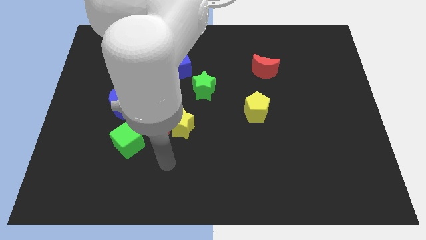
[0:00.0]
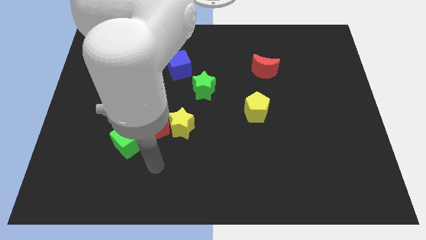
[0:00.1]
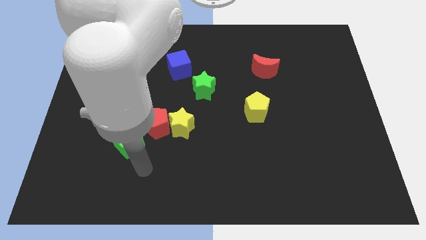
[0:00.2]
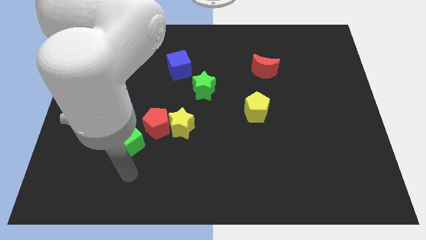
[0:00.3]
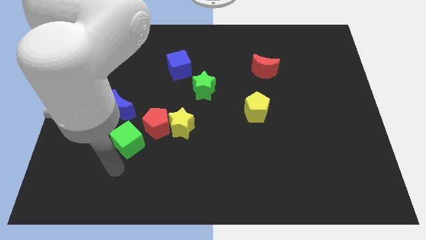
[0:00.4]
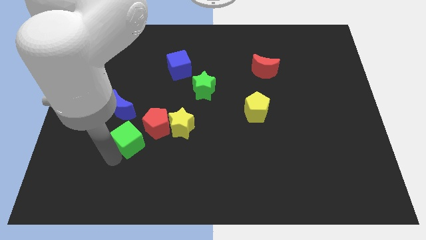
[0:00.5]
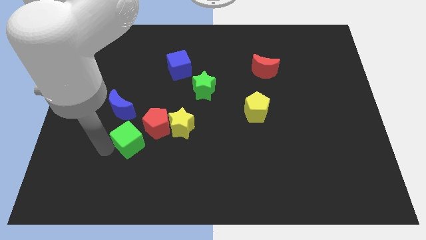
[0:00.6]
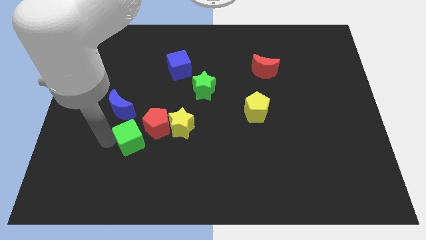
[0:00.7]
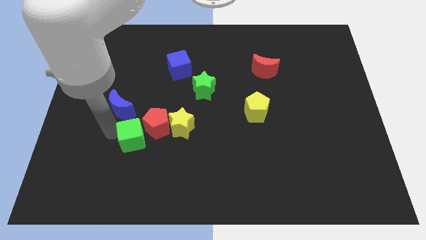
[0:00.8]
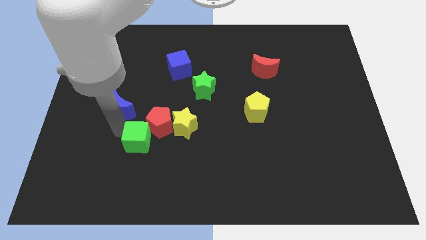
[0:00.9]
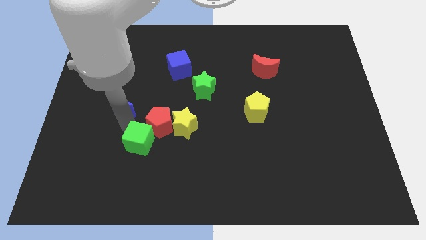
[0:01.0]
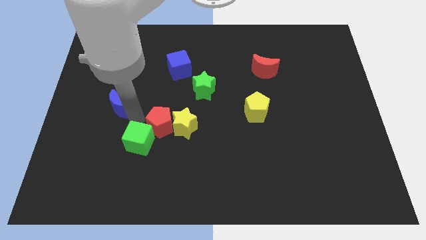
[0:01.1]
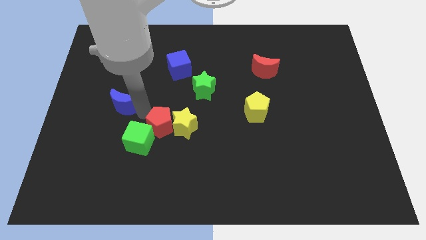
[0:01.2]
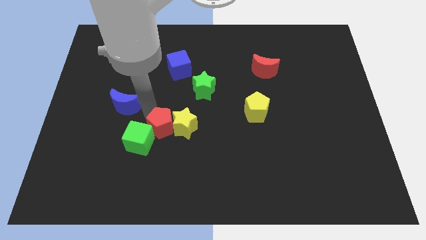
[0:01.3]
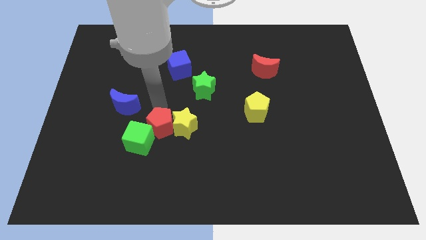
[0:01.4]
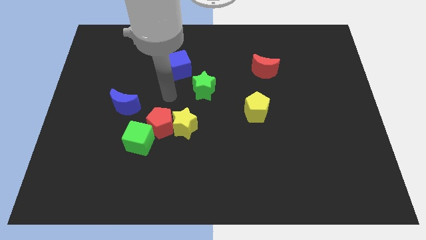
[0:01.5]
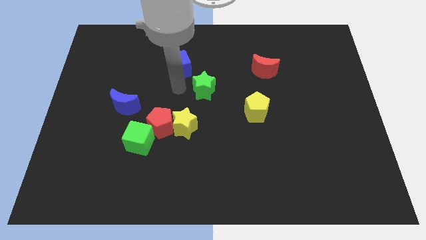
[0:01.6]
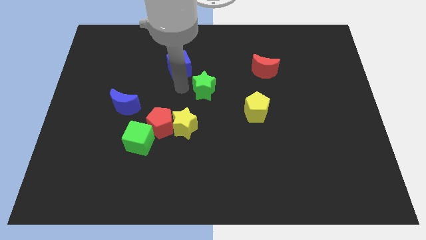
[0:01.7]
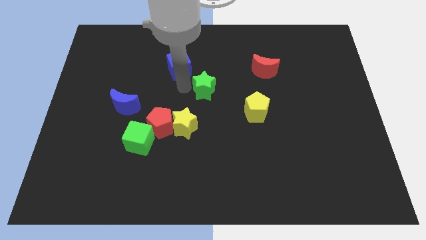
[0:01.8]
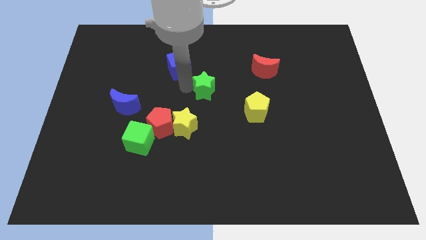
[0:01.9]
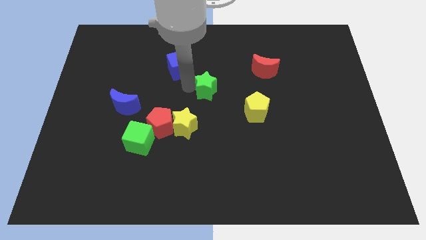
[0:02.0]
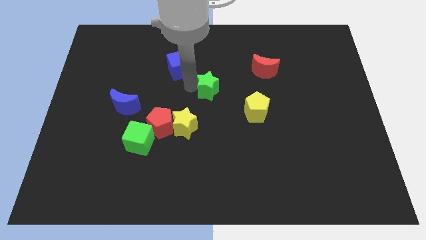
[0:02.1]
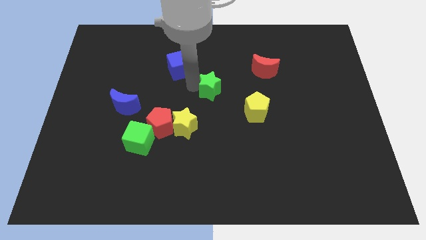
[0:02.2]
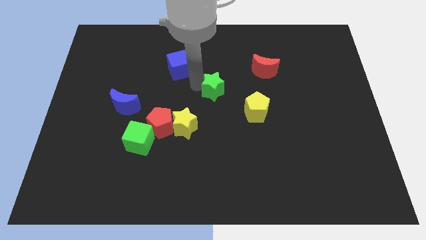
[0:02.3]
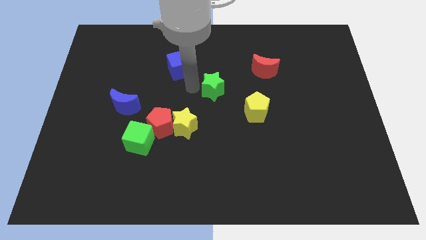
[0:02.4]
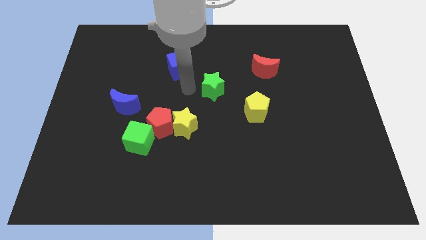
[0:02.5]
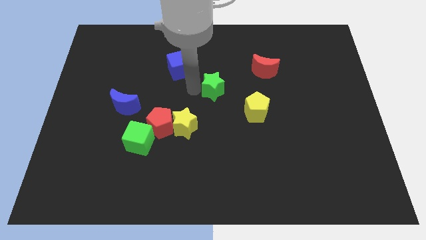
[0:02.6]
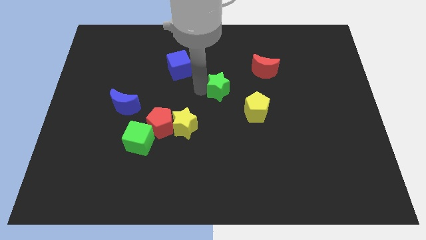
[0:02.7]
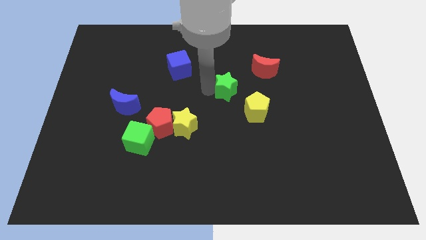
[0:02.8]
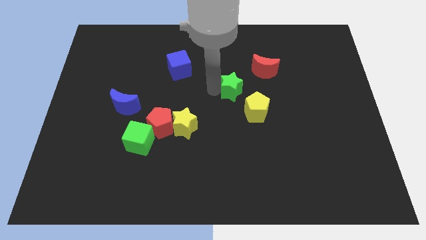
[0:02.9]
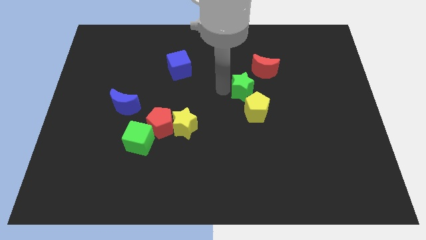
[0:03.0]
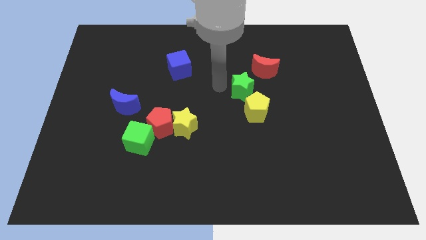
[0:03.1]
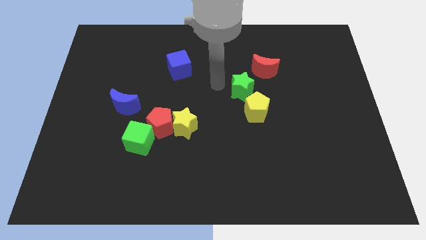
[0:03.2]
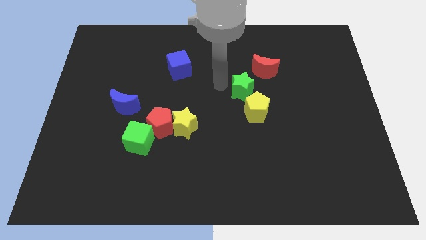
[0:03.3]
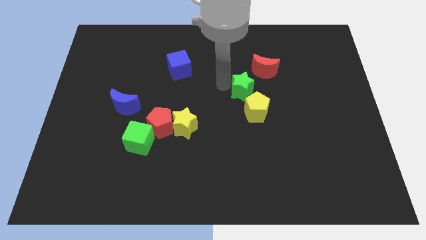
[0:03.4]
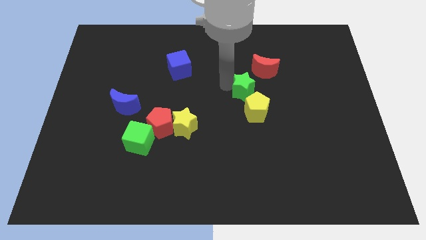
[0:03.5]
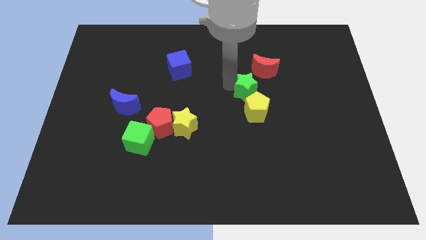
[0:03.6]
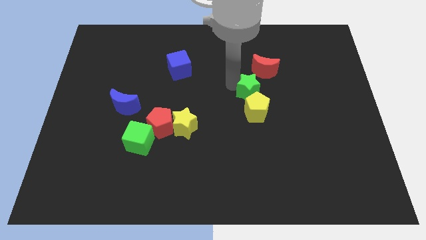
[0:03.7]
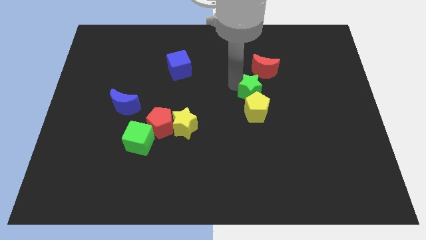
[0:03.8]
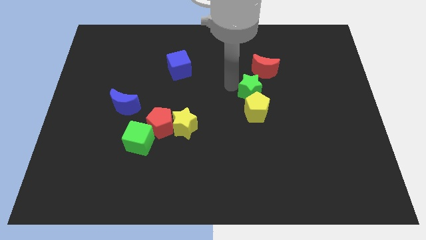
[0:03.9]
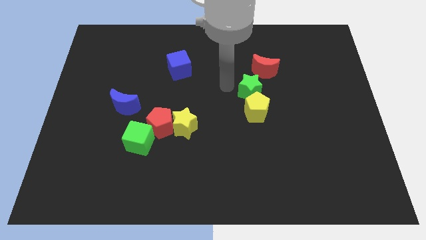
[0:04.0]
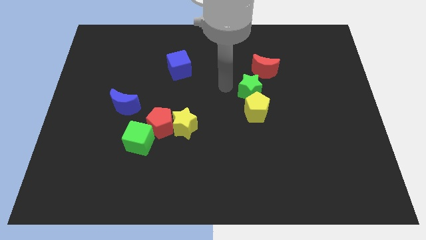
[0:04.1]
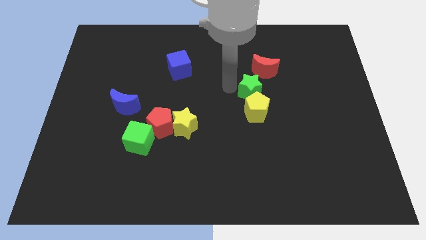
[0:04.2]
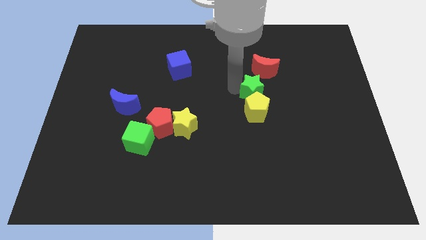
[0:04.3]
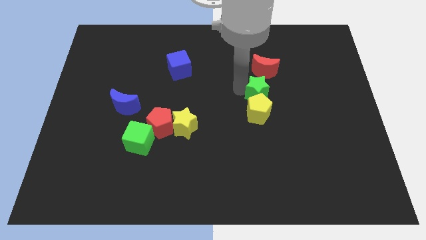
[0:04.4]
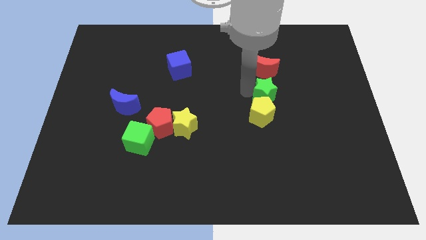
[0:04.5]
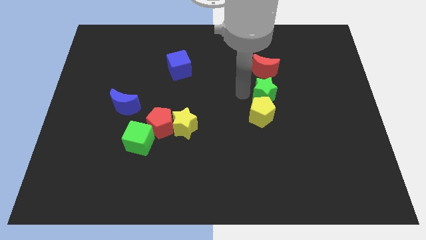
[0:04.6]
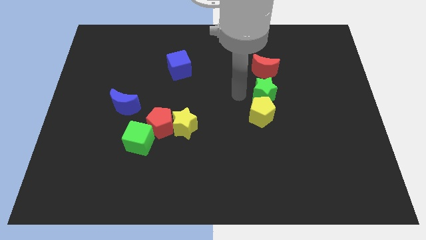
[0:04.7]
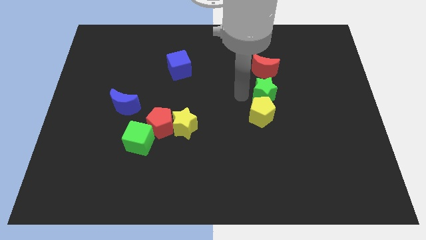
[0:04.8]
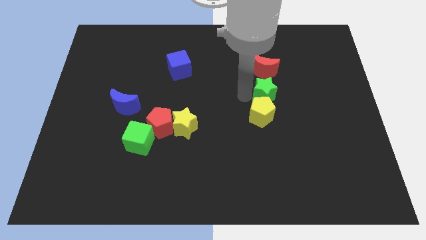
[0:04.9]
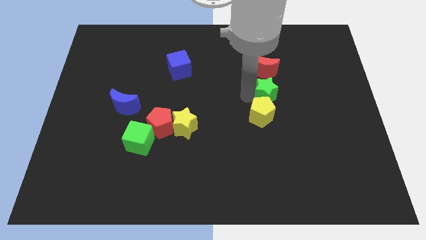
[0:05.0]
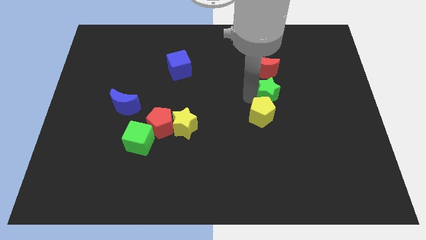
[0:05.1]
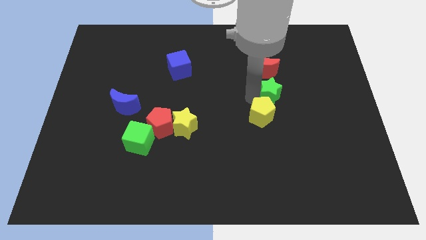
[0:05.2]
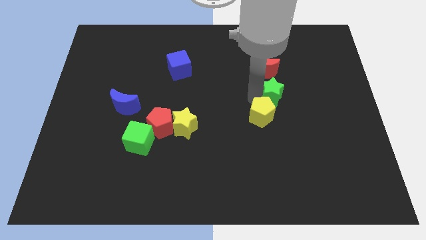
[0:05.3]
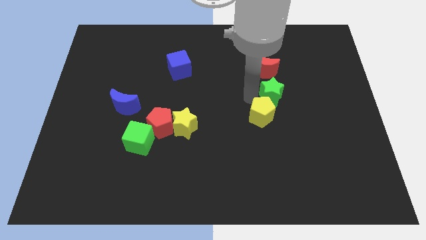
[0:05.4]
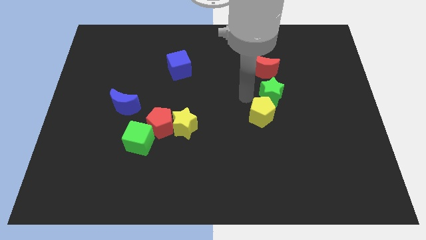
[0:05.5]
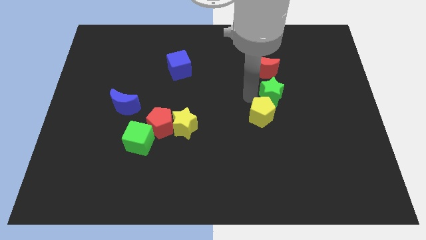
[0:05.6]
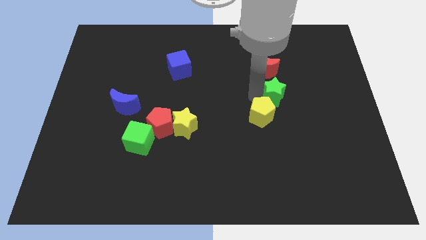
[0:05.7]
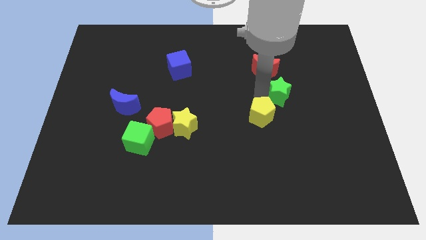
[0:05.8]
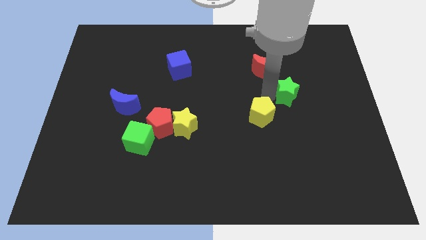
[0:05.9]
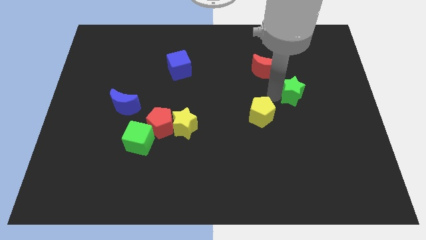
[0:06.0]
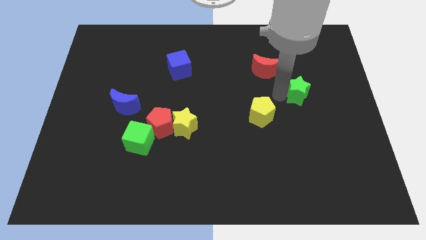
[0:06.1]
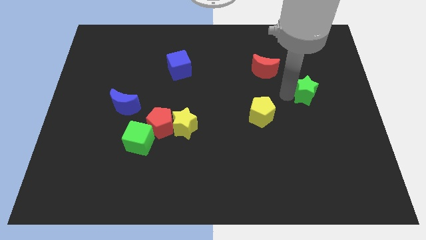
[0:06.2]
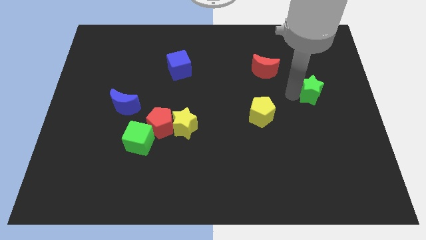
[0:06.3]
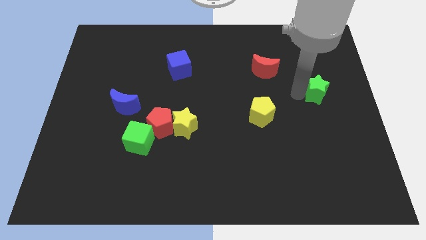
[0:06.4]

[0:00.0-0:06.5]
put the green star to the right side

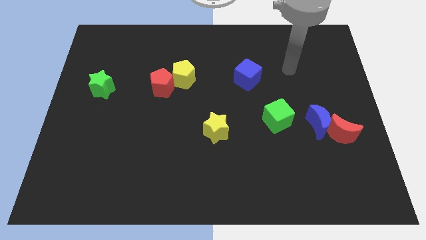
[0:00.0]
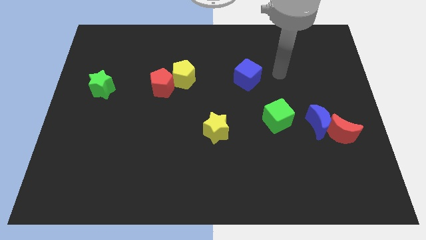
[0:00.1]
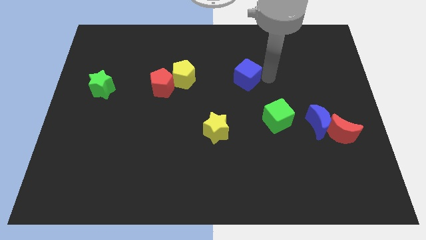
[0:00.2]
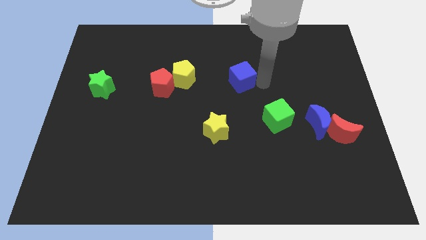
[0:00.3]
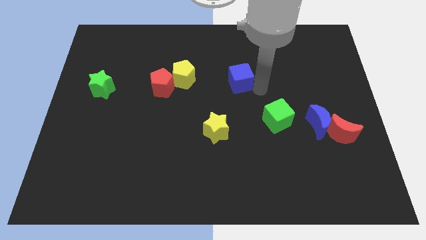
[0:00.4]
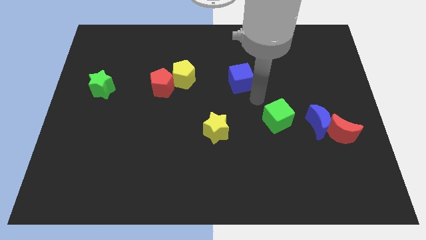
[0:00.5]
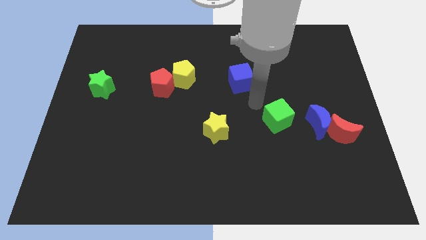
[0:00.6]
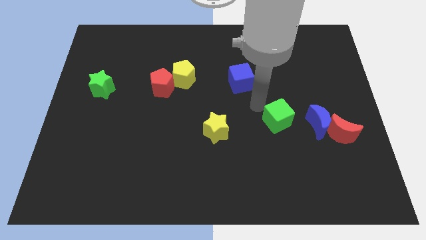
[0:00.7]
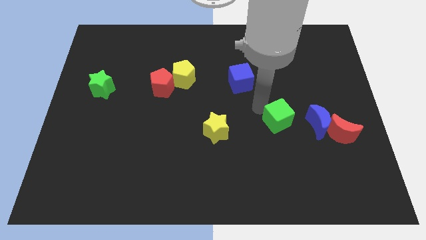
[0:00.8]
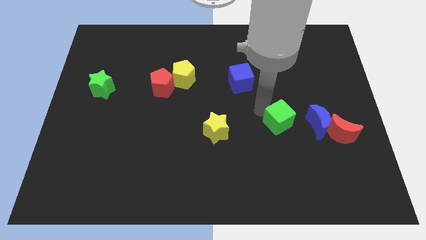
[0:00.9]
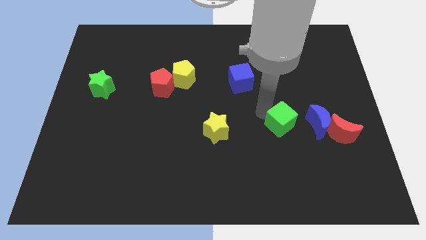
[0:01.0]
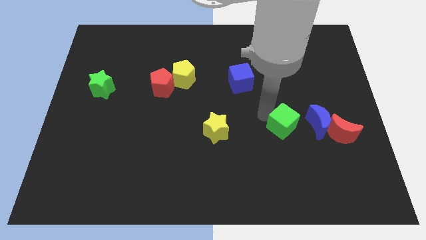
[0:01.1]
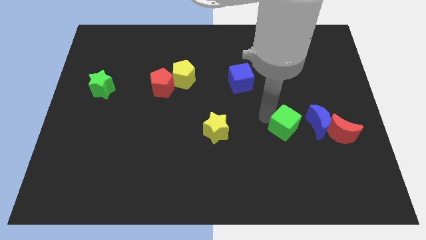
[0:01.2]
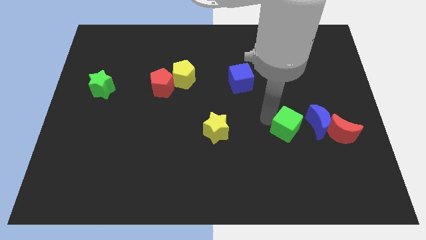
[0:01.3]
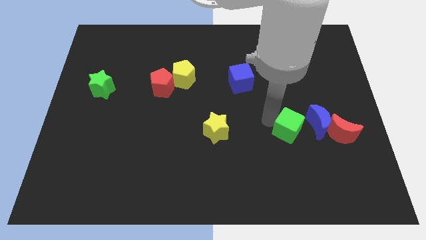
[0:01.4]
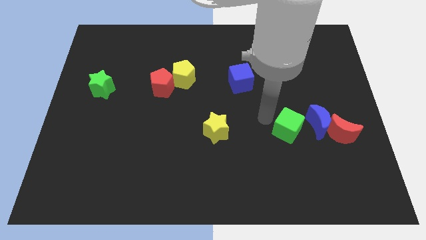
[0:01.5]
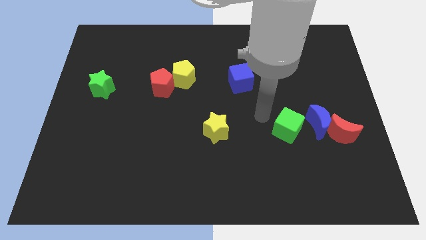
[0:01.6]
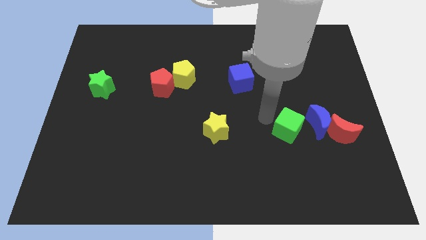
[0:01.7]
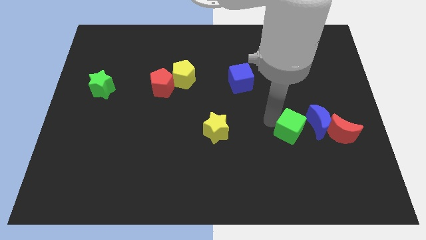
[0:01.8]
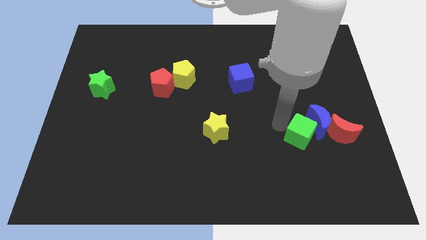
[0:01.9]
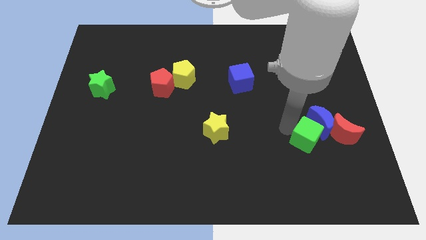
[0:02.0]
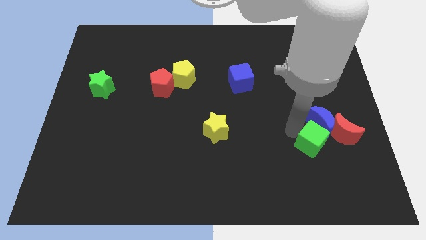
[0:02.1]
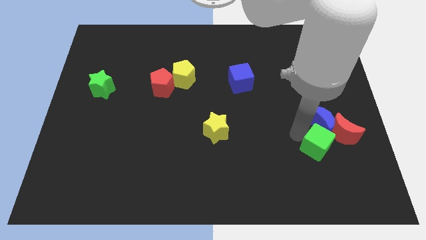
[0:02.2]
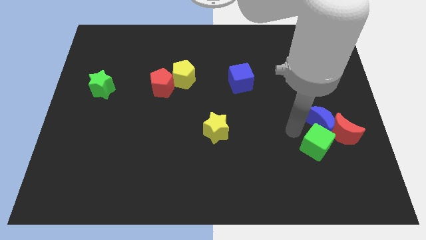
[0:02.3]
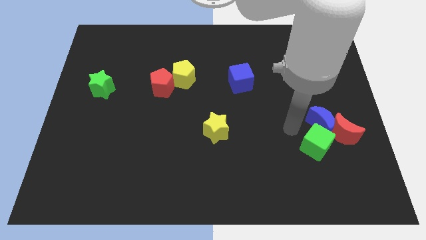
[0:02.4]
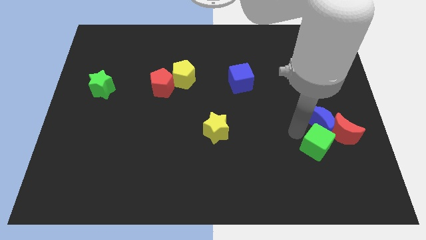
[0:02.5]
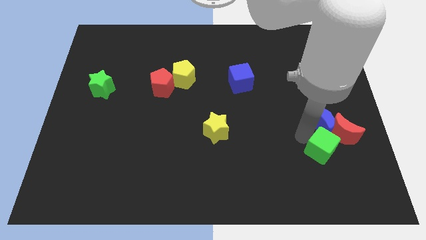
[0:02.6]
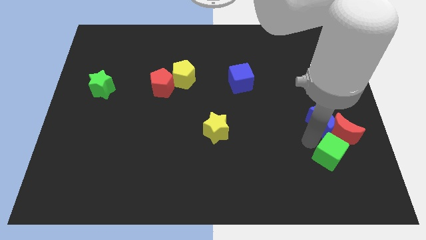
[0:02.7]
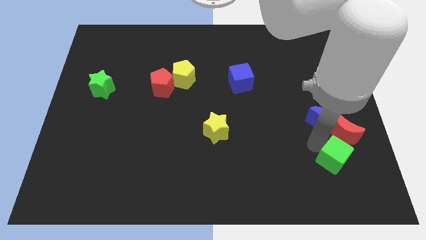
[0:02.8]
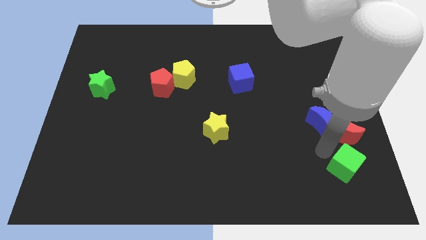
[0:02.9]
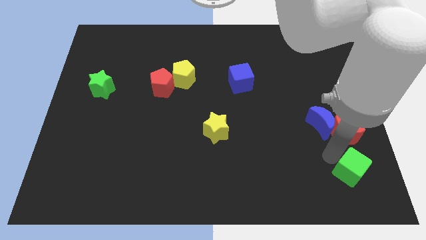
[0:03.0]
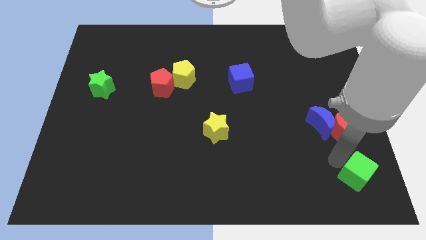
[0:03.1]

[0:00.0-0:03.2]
slide the green cube to the bottom right corner
